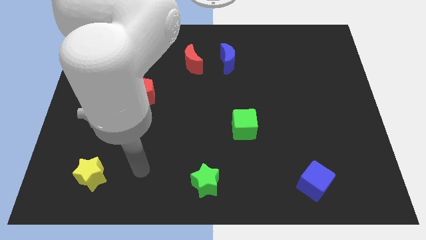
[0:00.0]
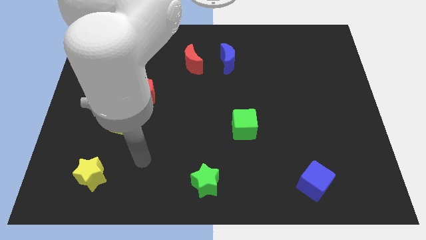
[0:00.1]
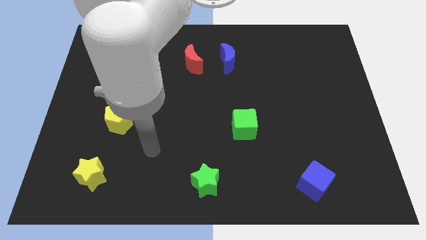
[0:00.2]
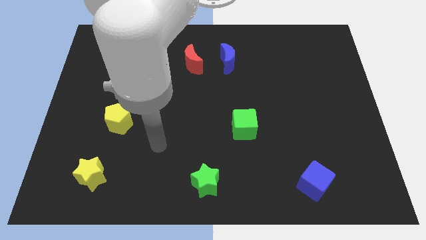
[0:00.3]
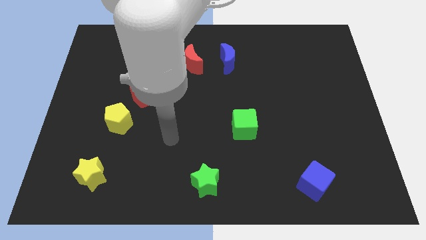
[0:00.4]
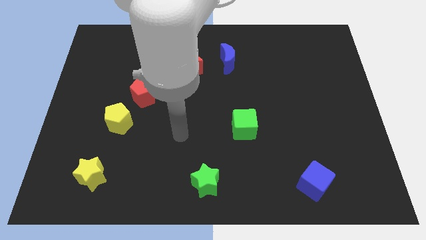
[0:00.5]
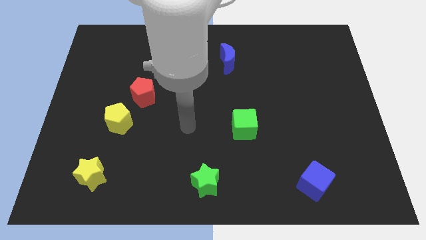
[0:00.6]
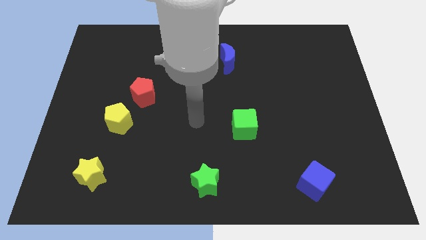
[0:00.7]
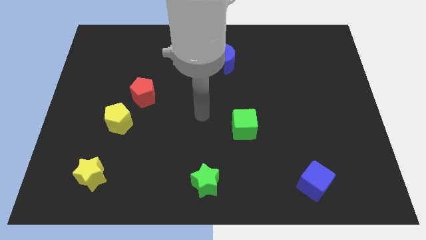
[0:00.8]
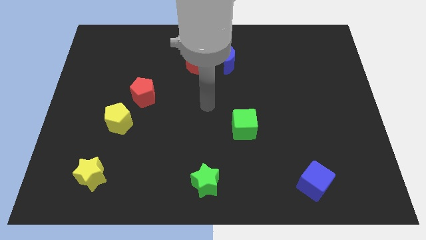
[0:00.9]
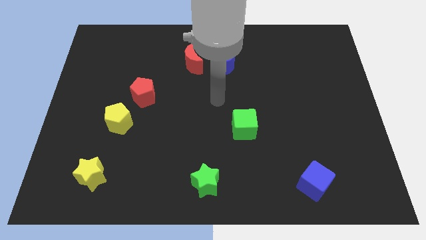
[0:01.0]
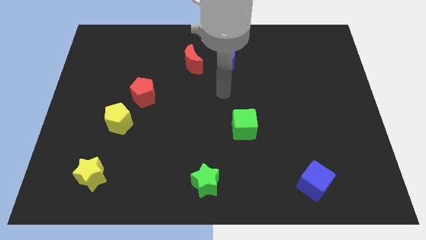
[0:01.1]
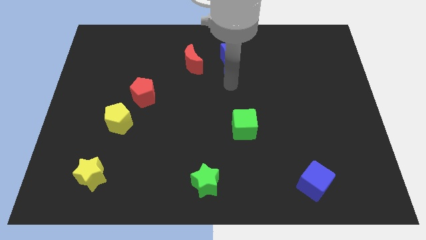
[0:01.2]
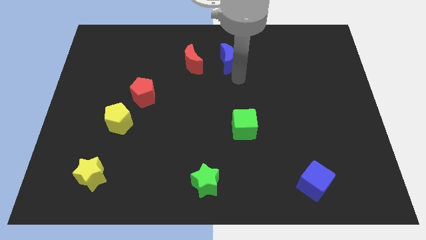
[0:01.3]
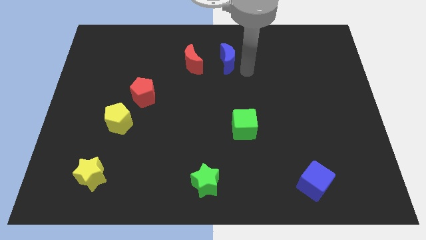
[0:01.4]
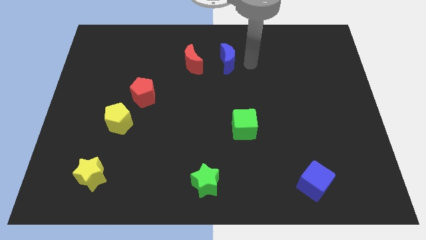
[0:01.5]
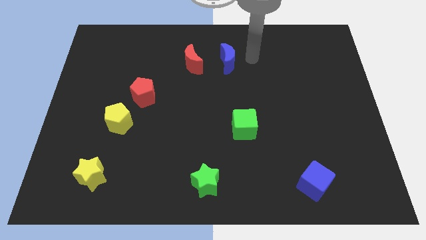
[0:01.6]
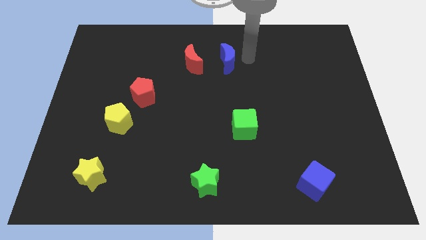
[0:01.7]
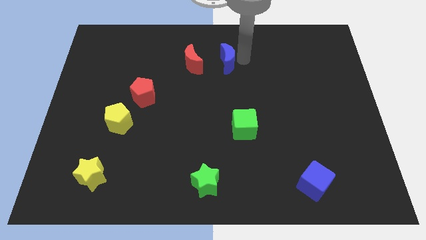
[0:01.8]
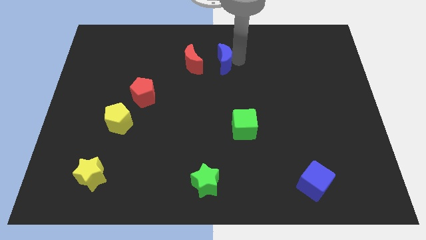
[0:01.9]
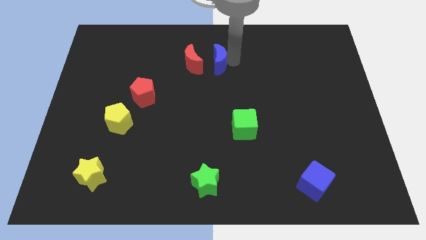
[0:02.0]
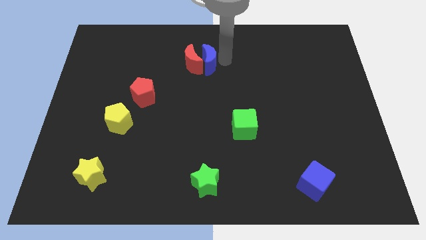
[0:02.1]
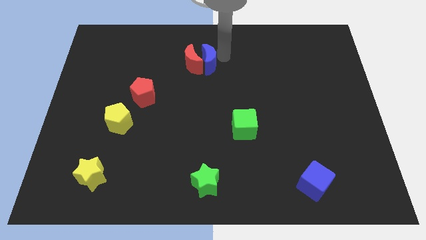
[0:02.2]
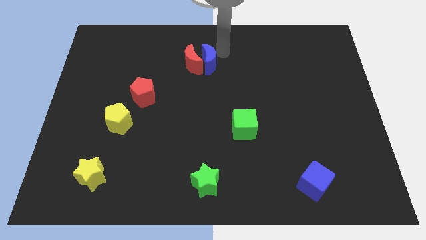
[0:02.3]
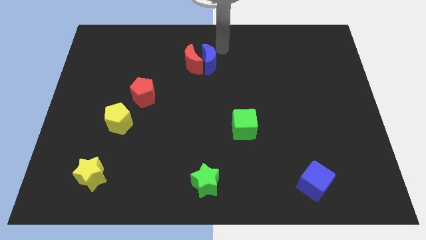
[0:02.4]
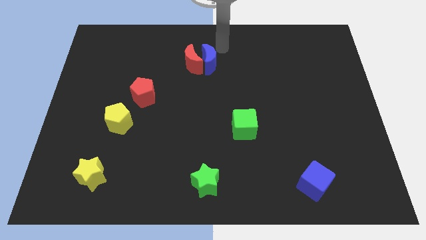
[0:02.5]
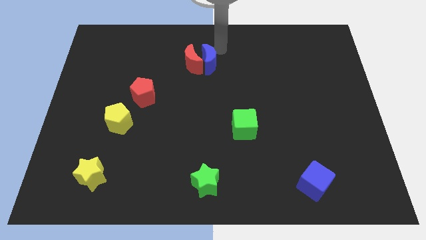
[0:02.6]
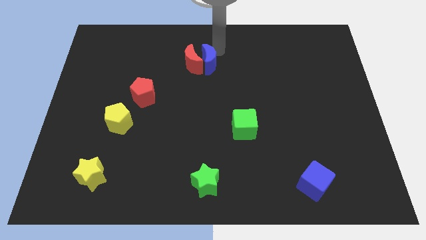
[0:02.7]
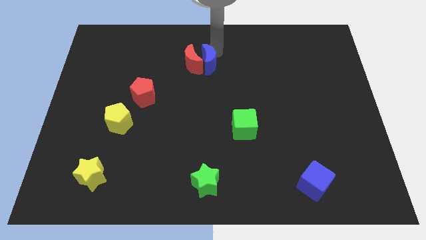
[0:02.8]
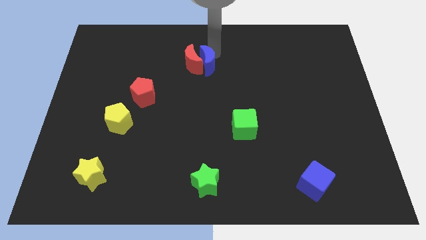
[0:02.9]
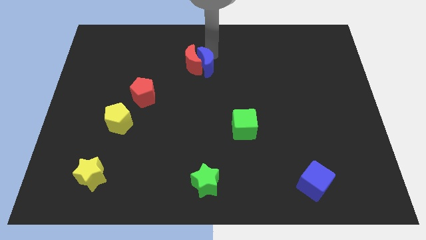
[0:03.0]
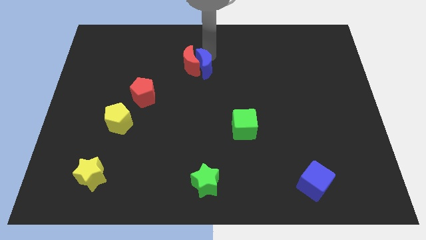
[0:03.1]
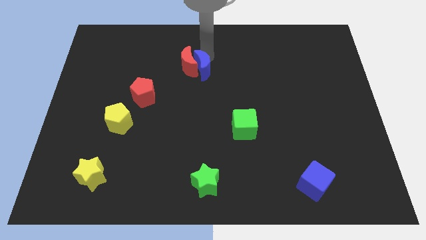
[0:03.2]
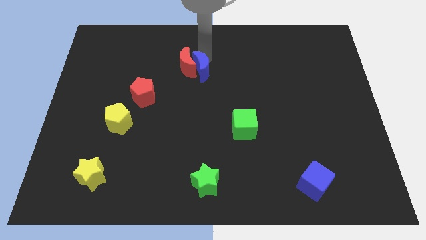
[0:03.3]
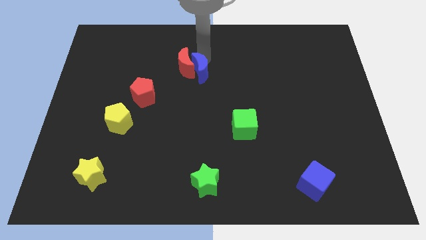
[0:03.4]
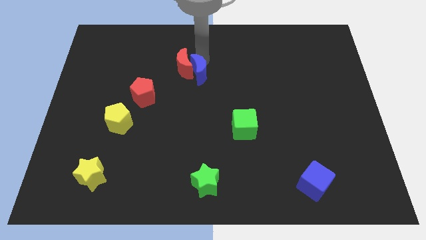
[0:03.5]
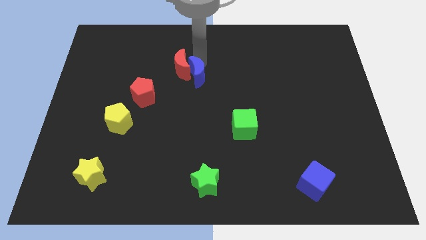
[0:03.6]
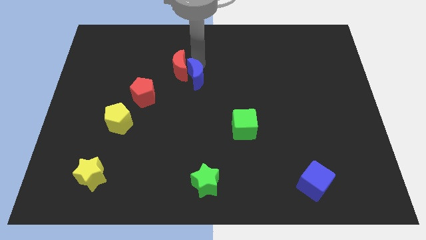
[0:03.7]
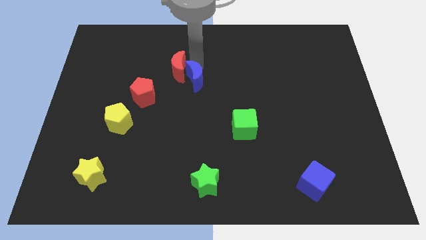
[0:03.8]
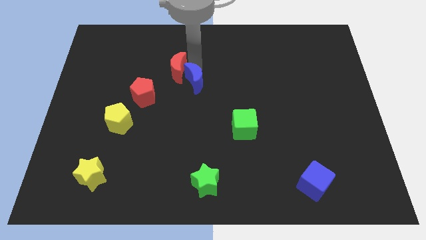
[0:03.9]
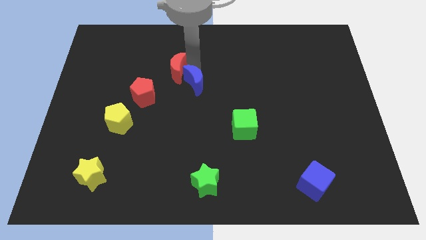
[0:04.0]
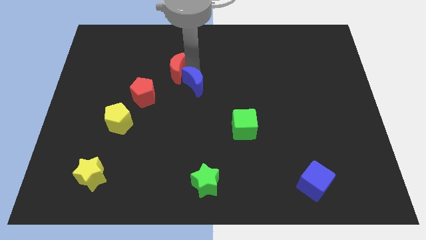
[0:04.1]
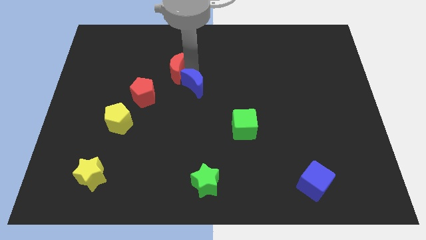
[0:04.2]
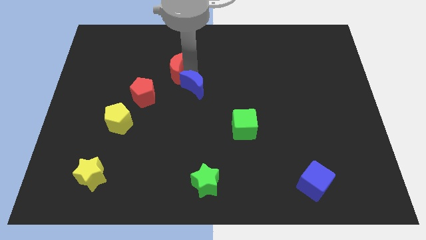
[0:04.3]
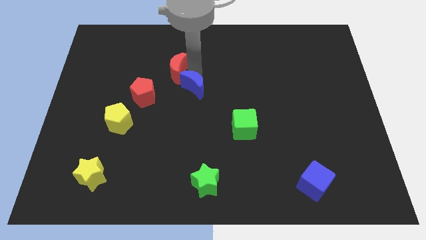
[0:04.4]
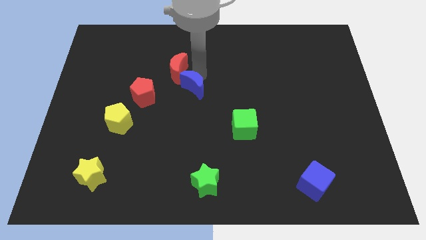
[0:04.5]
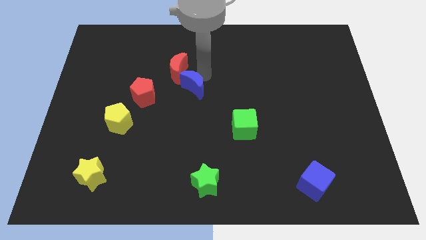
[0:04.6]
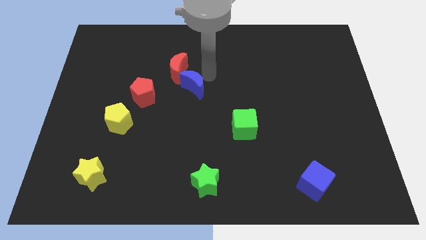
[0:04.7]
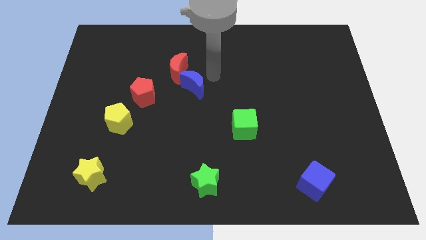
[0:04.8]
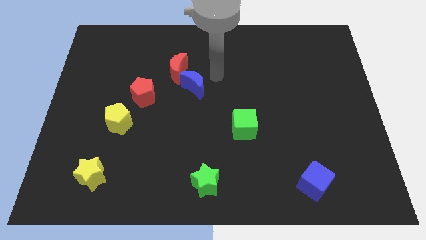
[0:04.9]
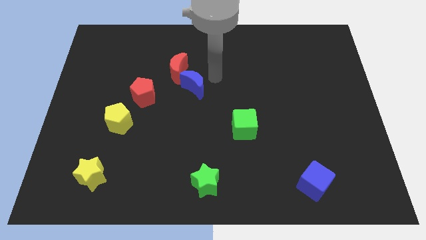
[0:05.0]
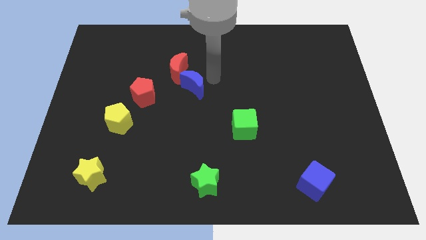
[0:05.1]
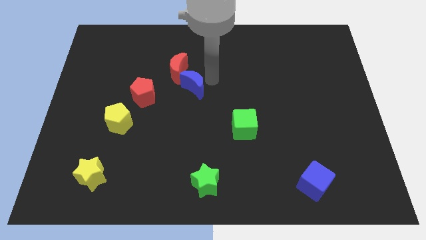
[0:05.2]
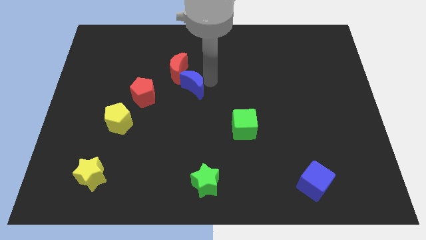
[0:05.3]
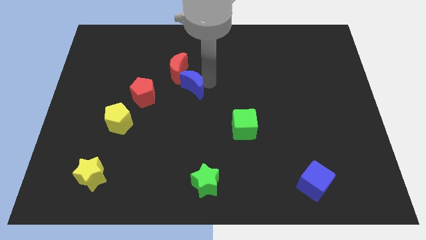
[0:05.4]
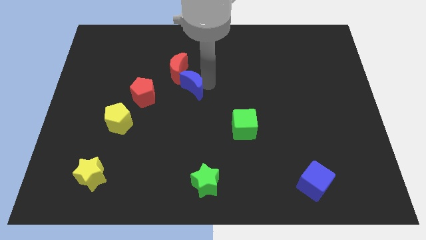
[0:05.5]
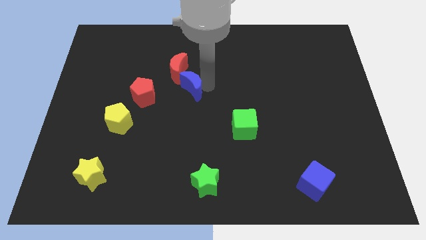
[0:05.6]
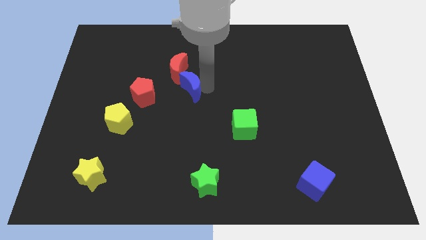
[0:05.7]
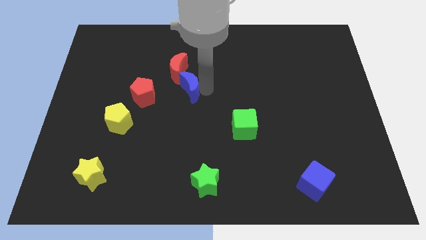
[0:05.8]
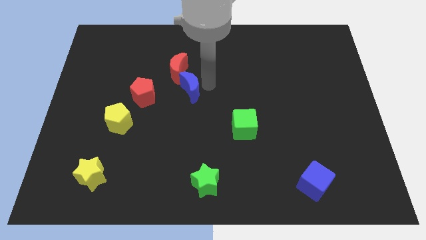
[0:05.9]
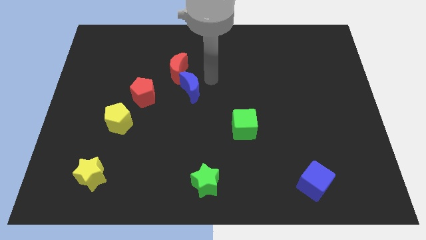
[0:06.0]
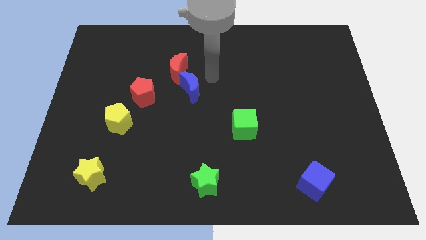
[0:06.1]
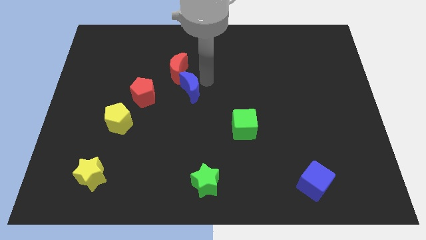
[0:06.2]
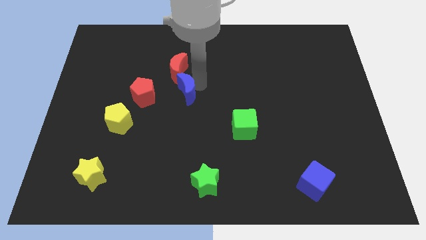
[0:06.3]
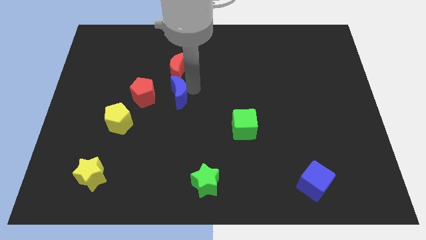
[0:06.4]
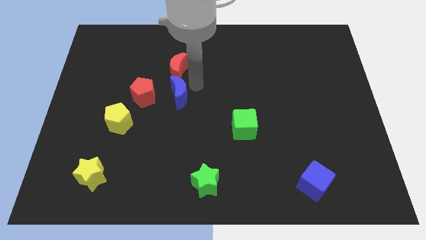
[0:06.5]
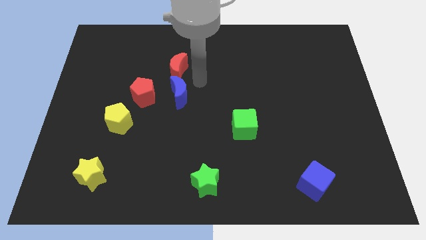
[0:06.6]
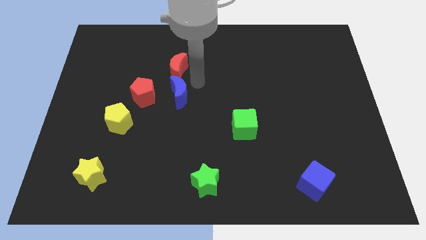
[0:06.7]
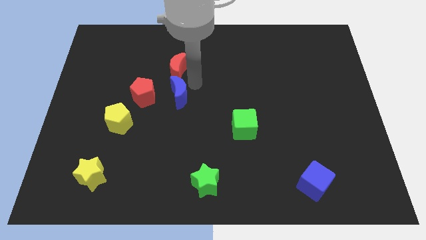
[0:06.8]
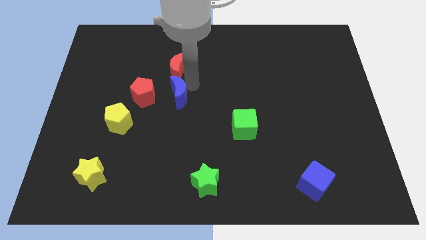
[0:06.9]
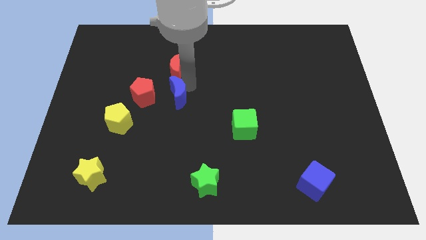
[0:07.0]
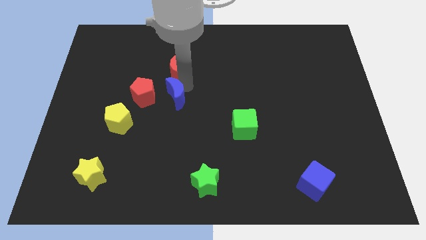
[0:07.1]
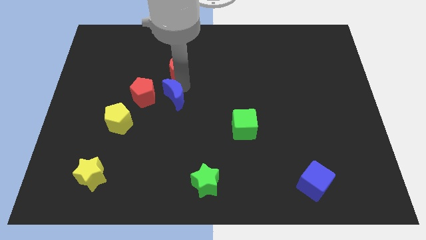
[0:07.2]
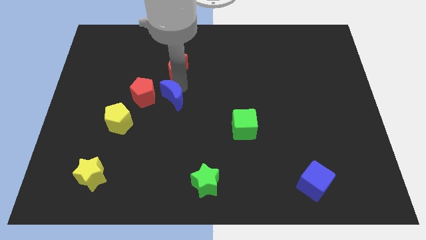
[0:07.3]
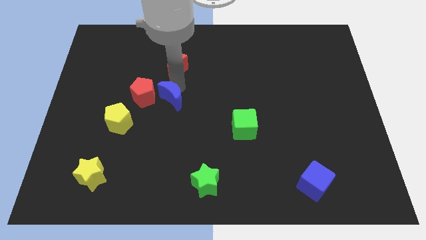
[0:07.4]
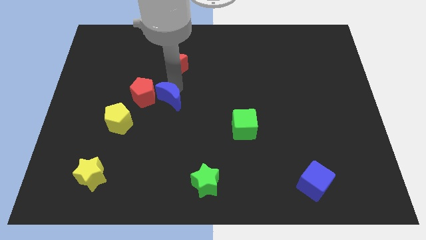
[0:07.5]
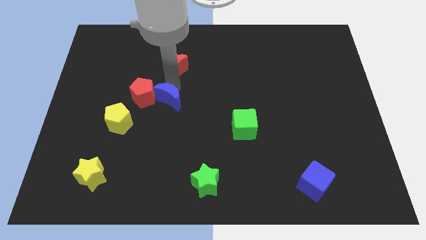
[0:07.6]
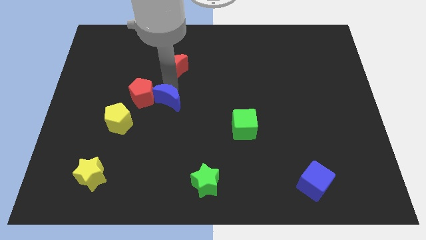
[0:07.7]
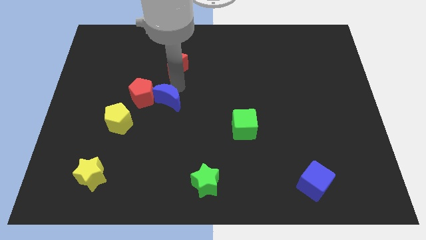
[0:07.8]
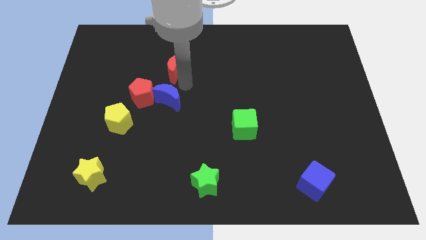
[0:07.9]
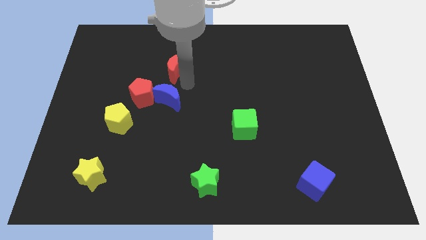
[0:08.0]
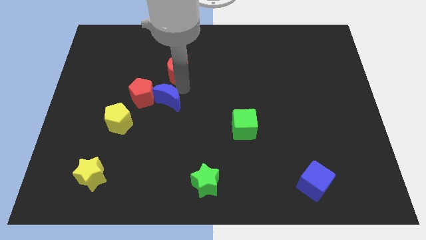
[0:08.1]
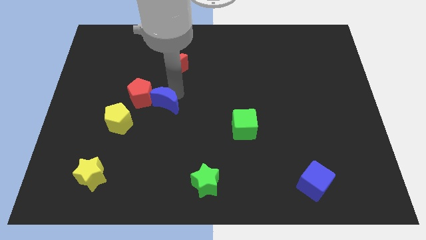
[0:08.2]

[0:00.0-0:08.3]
push the blue moon downwards and left diagonally

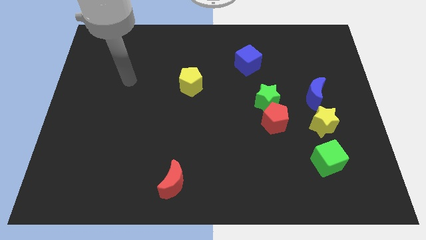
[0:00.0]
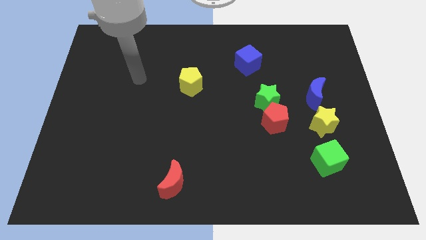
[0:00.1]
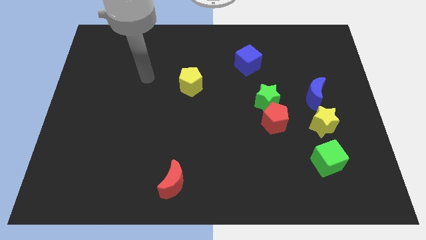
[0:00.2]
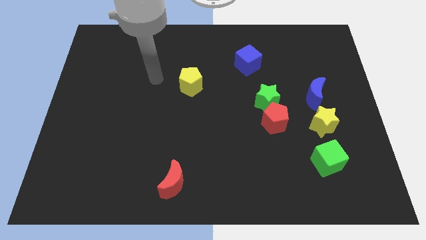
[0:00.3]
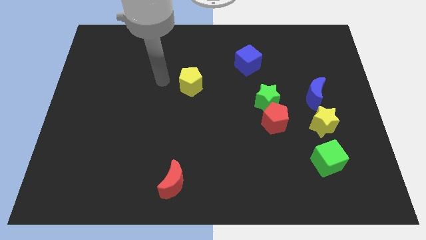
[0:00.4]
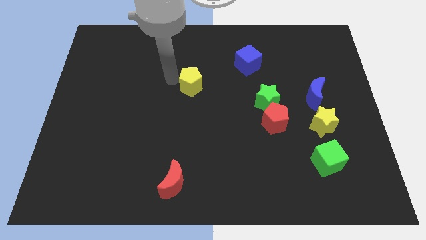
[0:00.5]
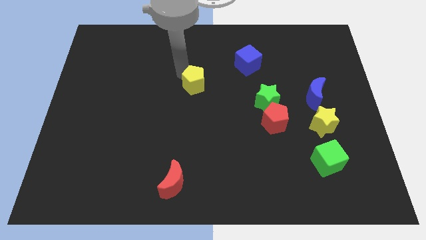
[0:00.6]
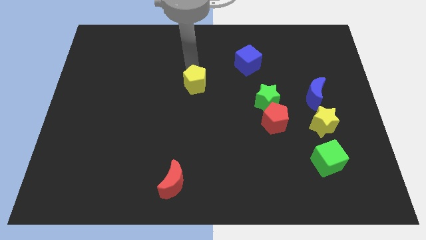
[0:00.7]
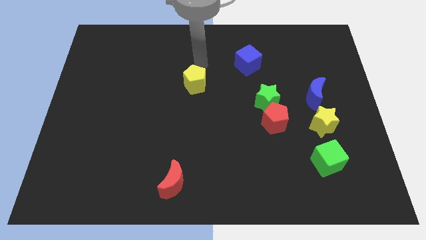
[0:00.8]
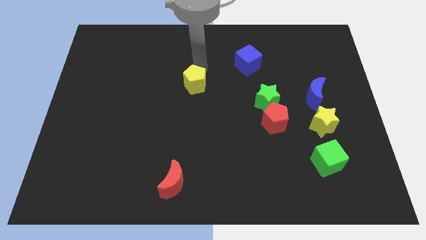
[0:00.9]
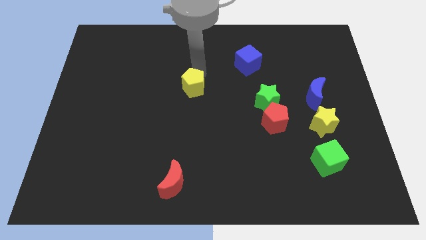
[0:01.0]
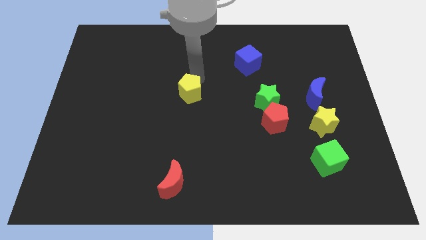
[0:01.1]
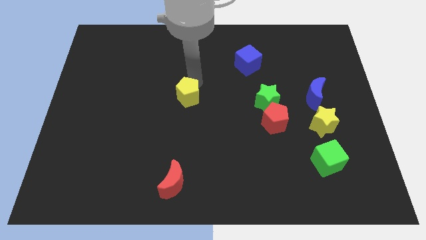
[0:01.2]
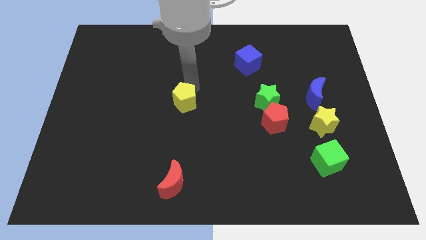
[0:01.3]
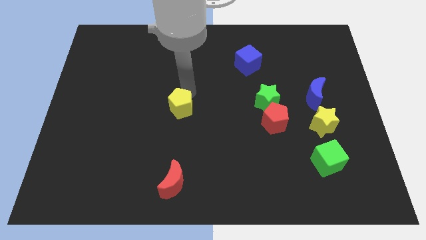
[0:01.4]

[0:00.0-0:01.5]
slightly slide the yellow pentagon down
